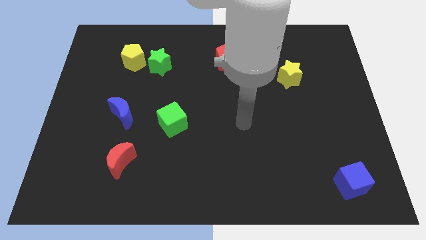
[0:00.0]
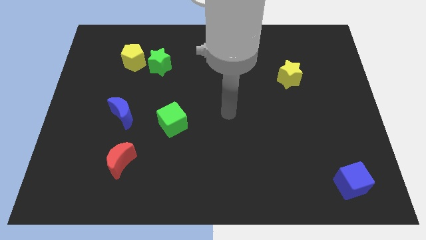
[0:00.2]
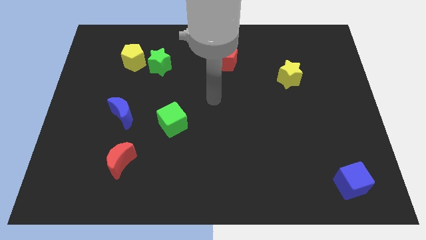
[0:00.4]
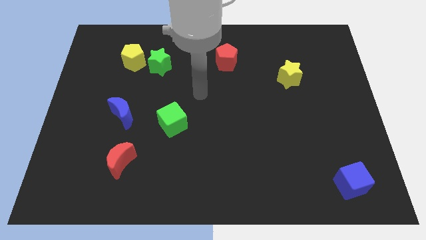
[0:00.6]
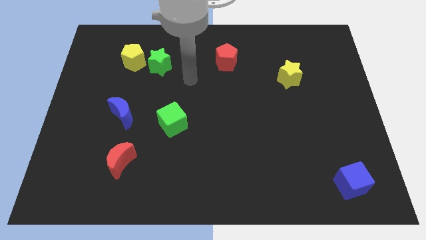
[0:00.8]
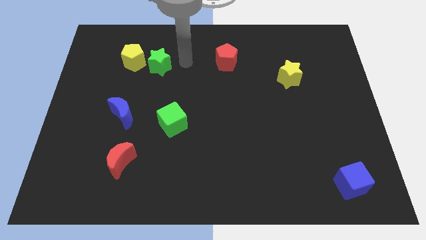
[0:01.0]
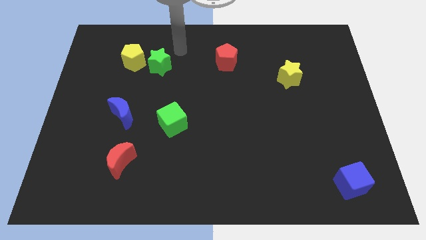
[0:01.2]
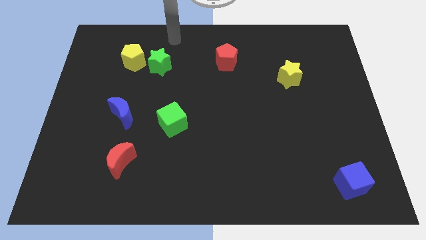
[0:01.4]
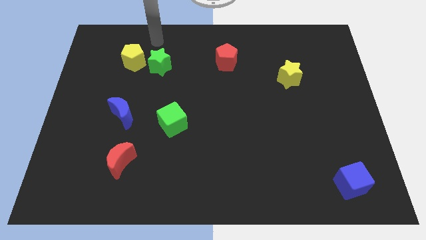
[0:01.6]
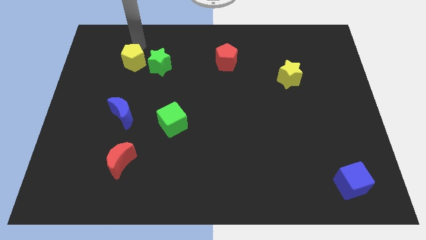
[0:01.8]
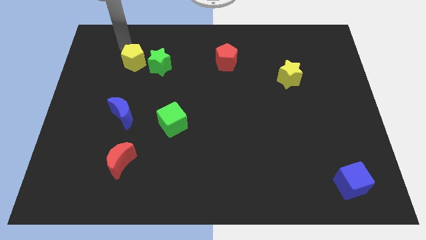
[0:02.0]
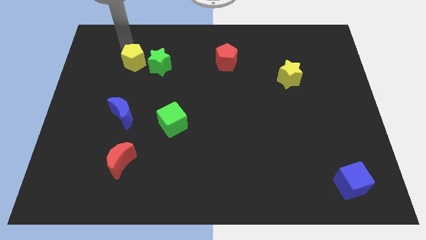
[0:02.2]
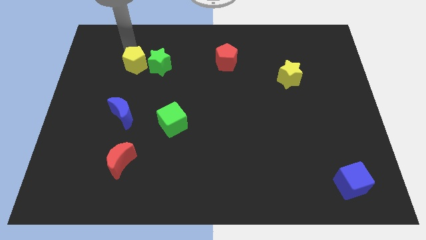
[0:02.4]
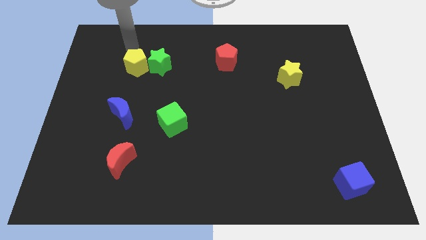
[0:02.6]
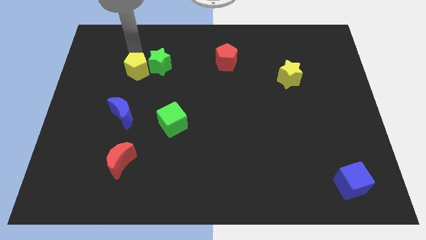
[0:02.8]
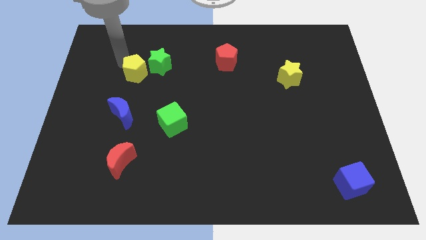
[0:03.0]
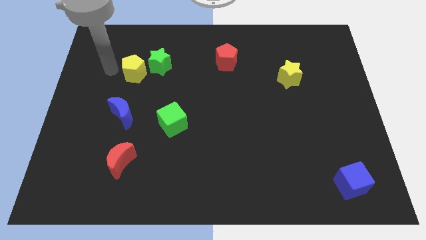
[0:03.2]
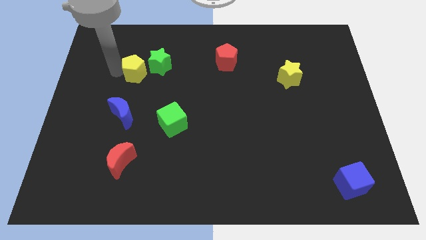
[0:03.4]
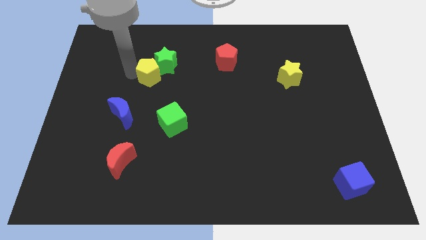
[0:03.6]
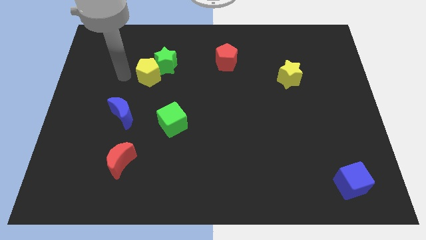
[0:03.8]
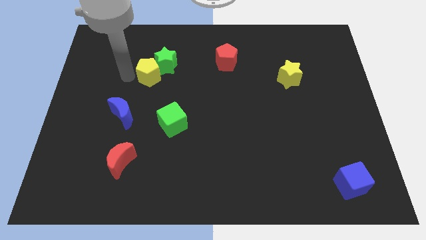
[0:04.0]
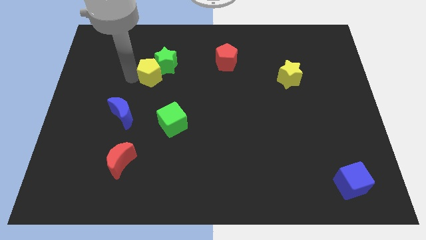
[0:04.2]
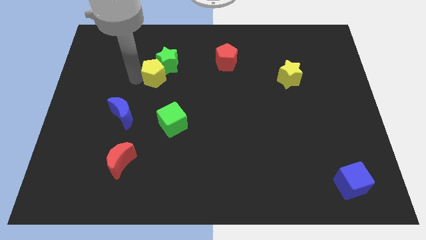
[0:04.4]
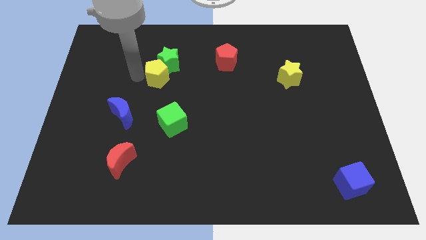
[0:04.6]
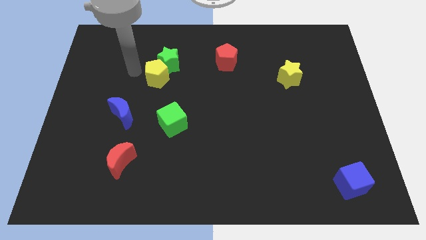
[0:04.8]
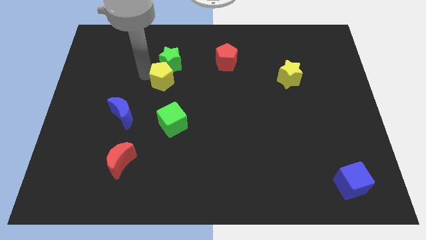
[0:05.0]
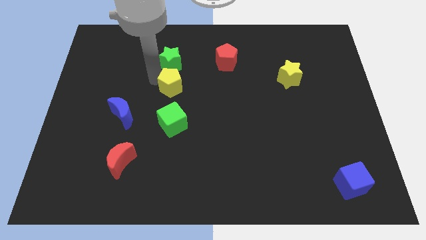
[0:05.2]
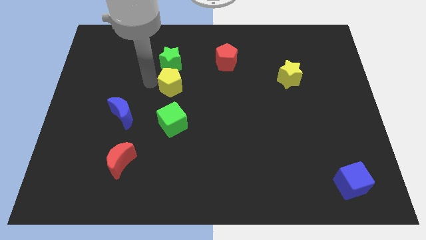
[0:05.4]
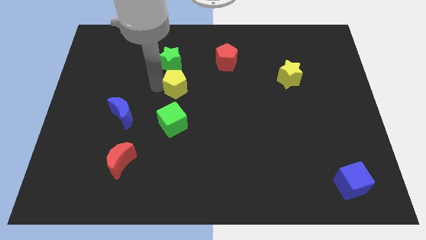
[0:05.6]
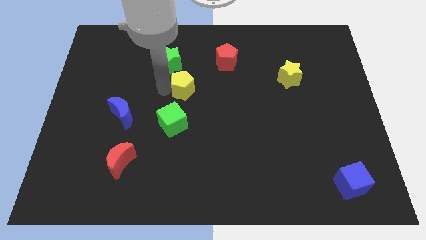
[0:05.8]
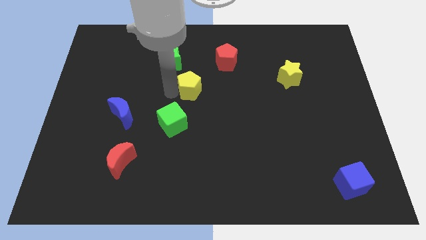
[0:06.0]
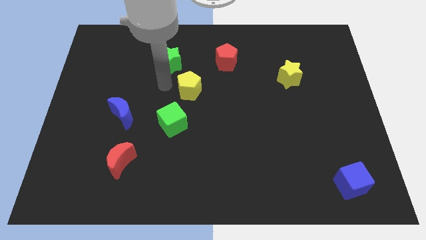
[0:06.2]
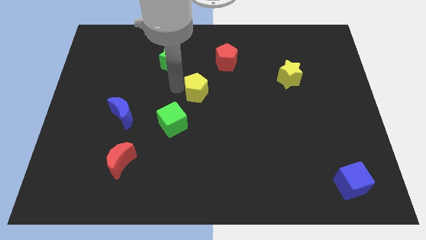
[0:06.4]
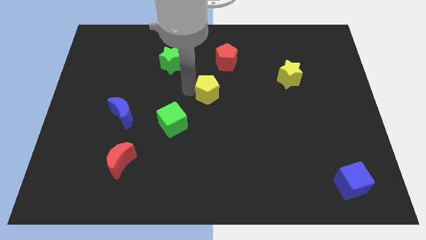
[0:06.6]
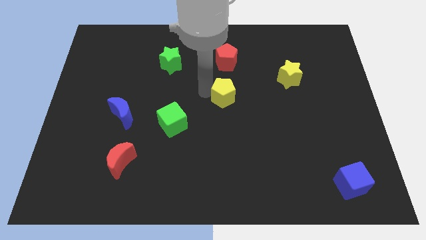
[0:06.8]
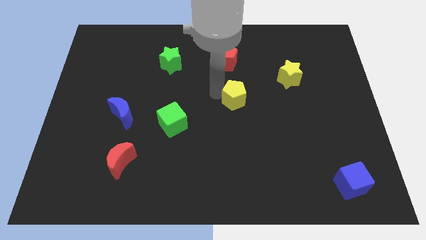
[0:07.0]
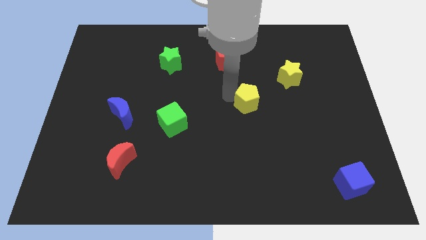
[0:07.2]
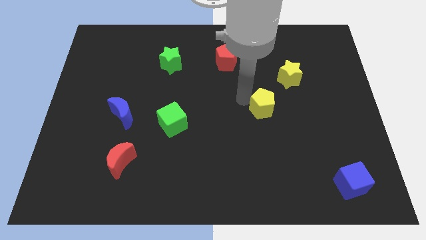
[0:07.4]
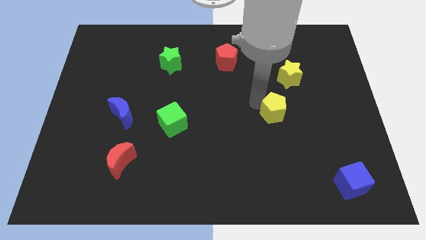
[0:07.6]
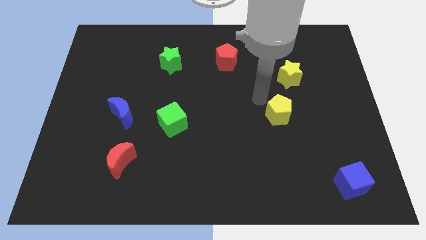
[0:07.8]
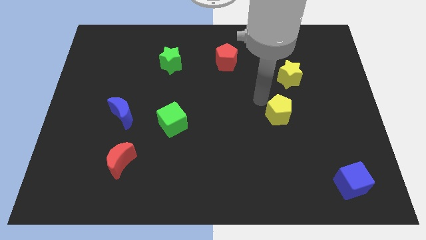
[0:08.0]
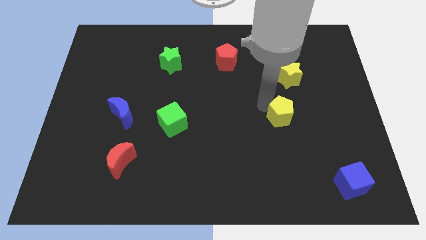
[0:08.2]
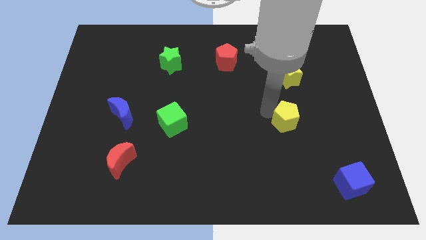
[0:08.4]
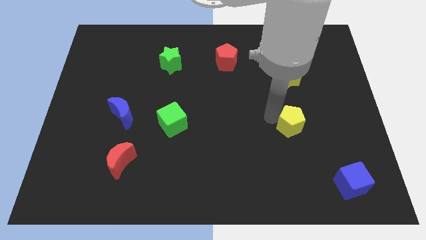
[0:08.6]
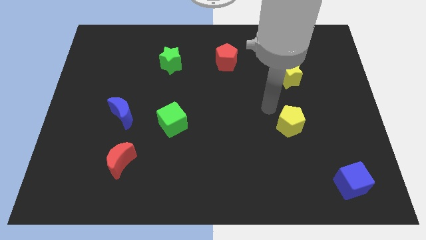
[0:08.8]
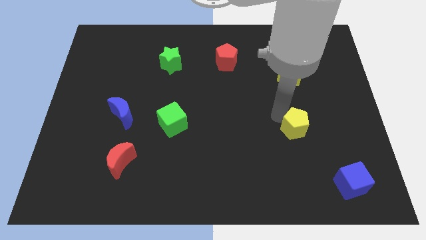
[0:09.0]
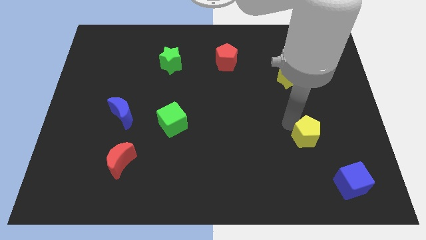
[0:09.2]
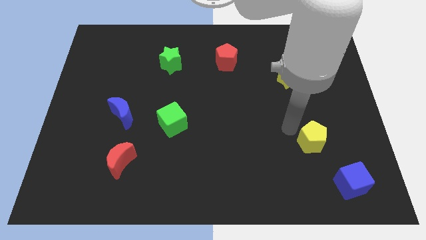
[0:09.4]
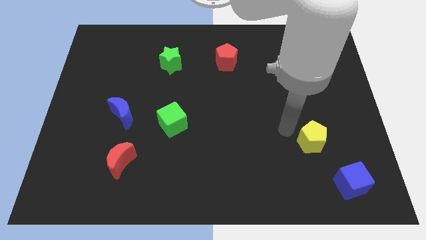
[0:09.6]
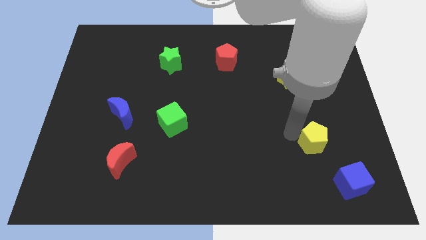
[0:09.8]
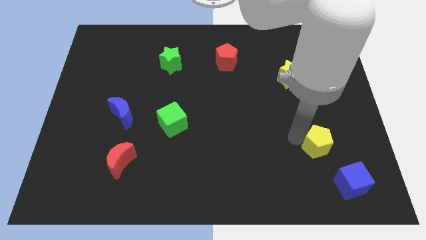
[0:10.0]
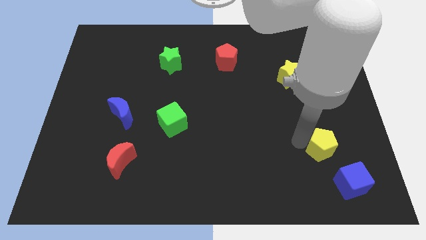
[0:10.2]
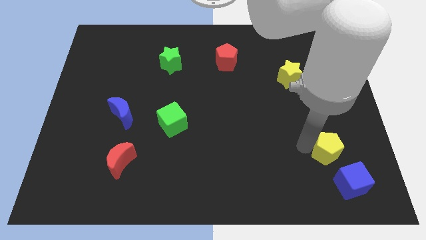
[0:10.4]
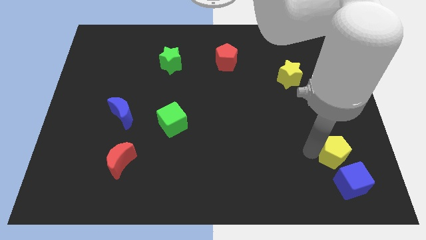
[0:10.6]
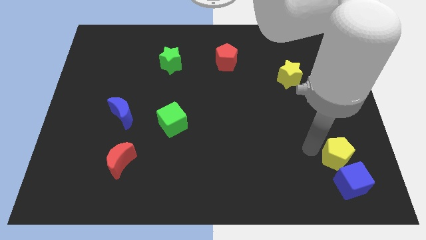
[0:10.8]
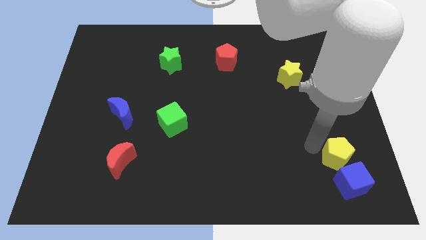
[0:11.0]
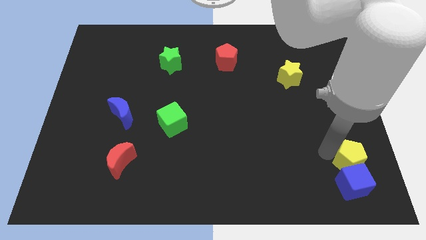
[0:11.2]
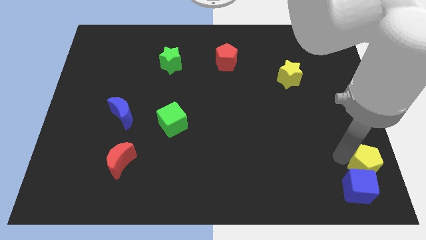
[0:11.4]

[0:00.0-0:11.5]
move the yellow pentagon to the lower right corner
